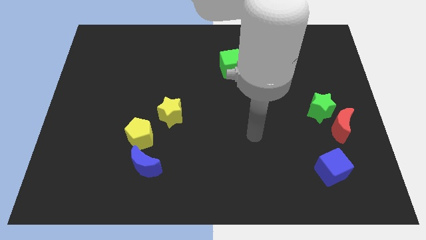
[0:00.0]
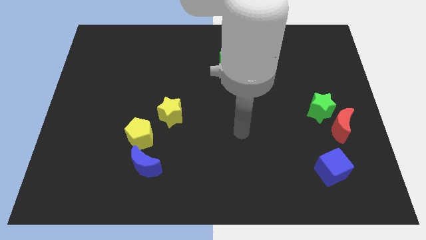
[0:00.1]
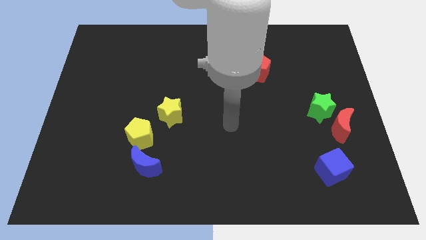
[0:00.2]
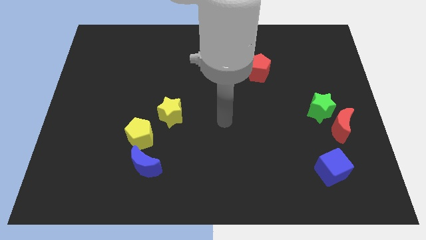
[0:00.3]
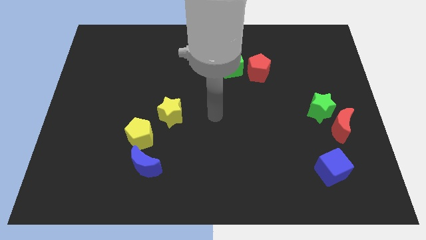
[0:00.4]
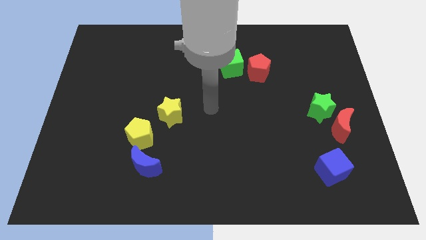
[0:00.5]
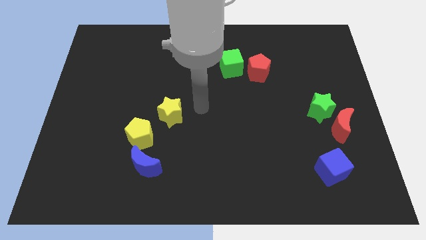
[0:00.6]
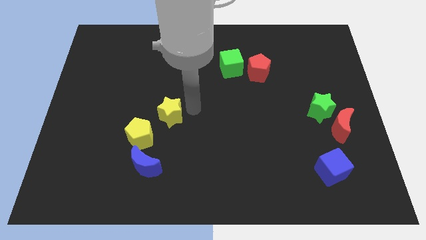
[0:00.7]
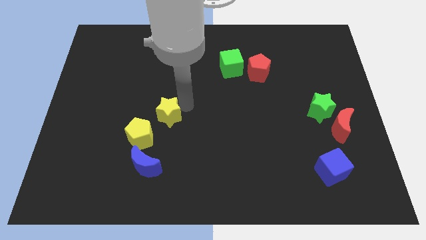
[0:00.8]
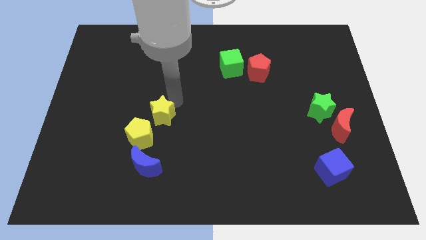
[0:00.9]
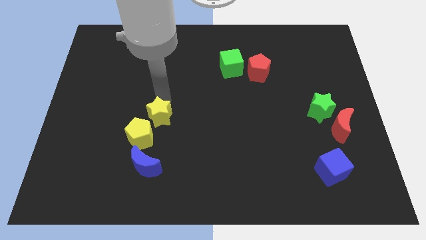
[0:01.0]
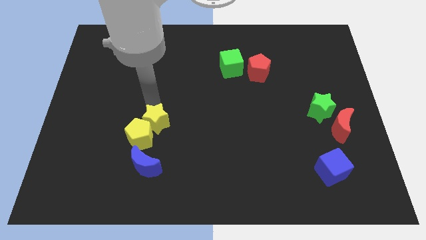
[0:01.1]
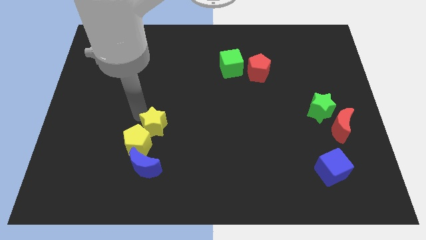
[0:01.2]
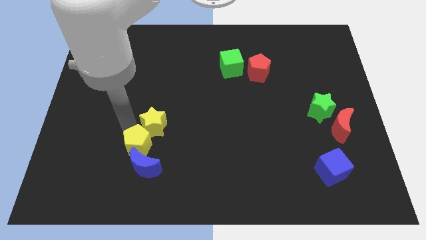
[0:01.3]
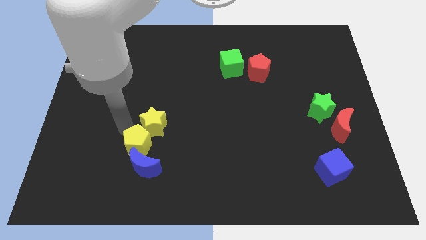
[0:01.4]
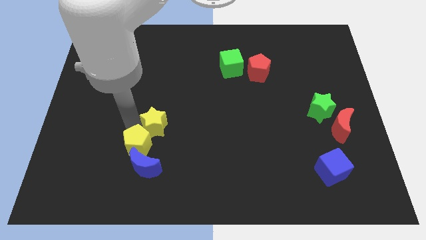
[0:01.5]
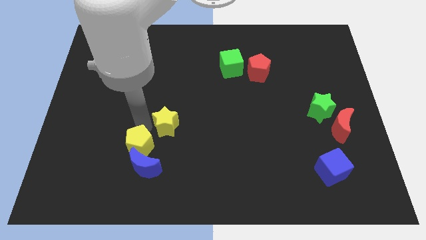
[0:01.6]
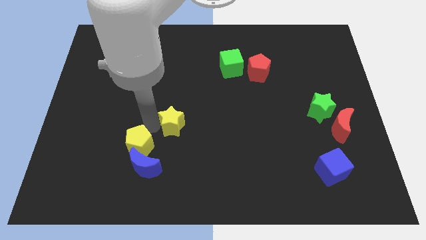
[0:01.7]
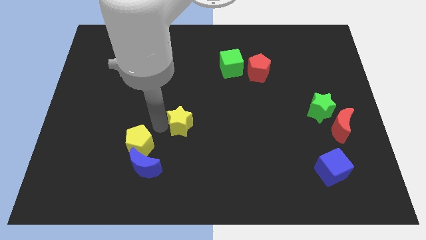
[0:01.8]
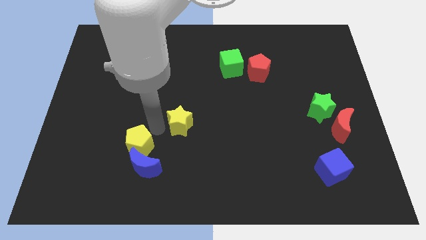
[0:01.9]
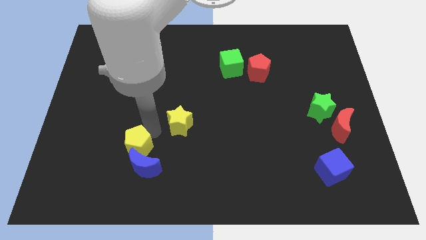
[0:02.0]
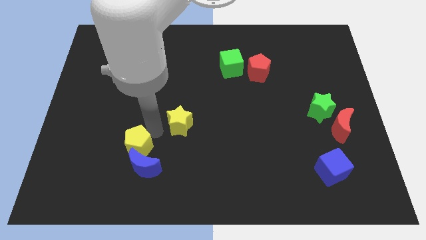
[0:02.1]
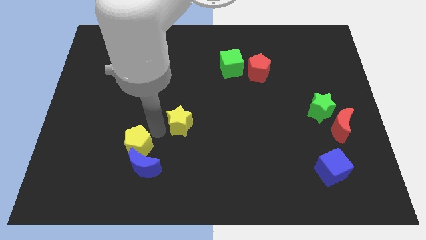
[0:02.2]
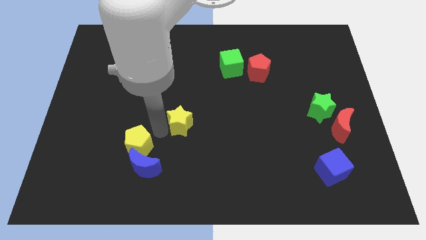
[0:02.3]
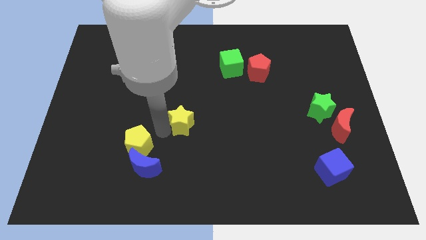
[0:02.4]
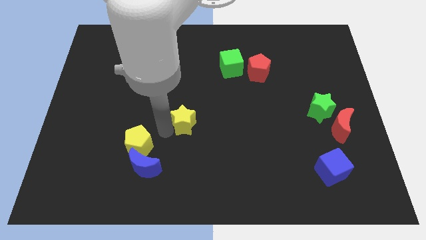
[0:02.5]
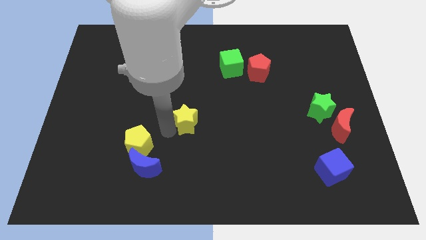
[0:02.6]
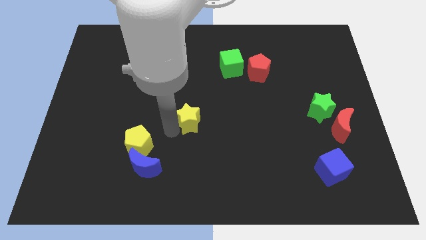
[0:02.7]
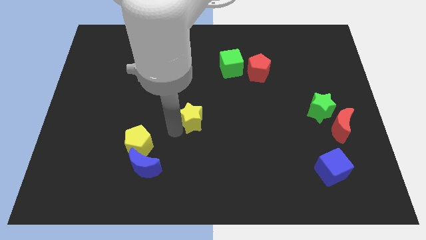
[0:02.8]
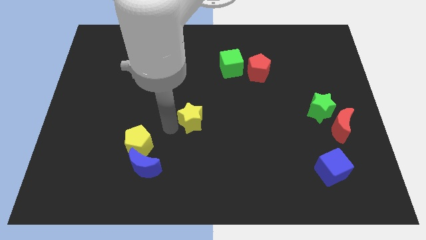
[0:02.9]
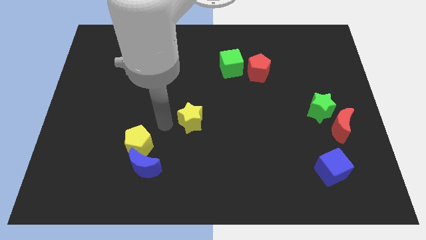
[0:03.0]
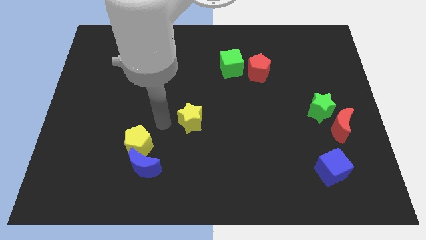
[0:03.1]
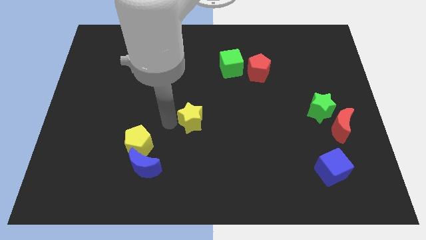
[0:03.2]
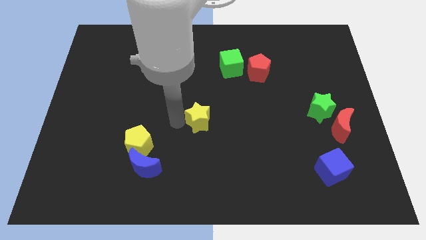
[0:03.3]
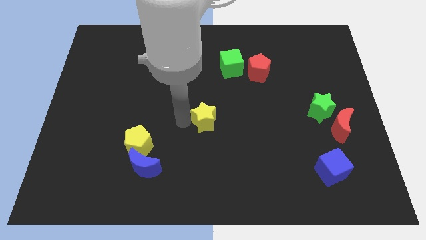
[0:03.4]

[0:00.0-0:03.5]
move the yellow star to the right a little bit

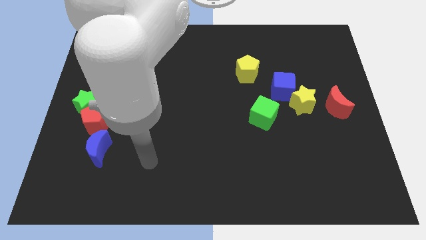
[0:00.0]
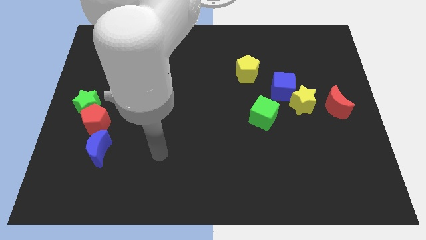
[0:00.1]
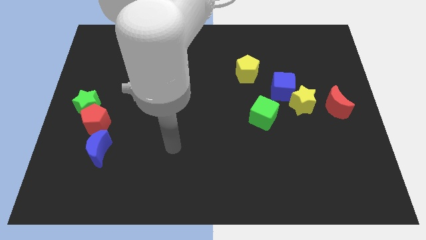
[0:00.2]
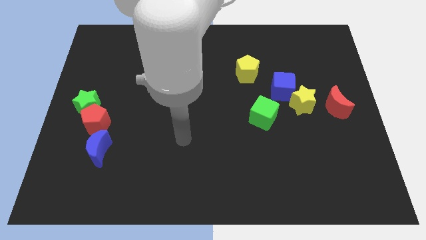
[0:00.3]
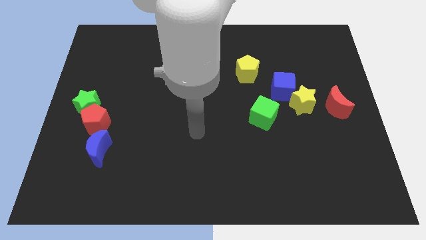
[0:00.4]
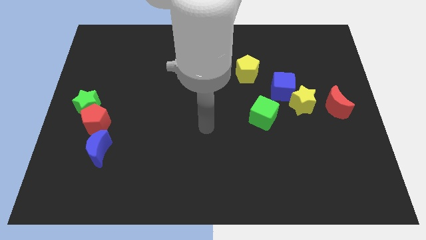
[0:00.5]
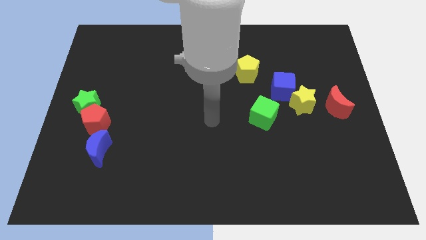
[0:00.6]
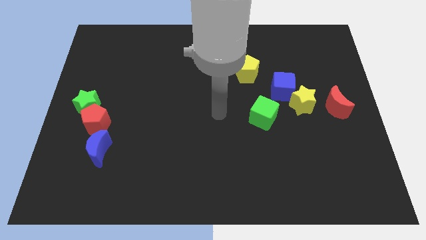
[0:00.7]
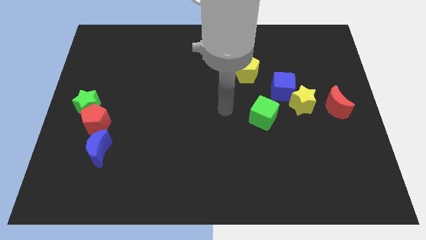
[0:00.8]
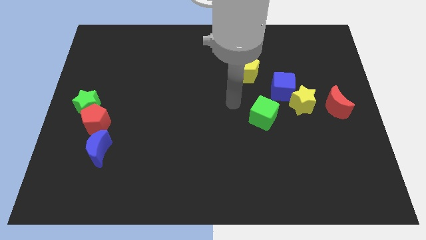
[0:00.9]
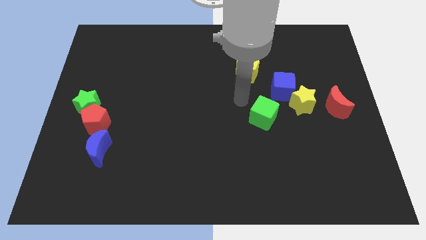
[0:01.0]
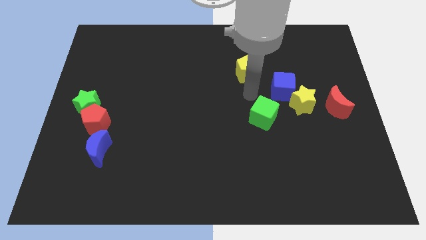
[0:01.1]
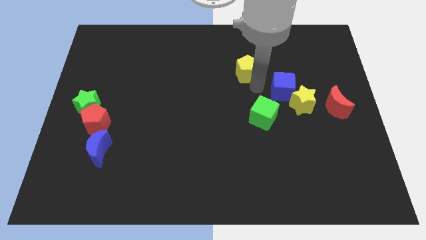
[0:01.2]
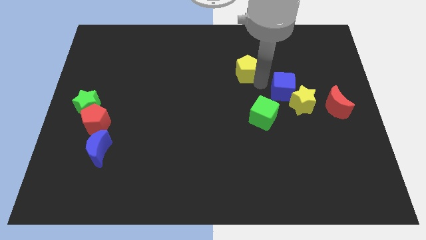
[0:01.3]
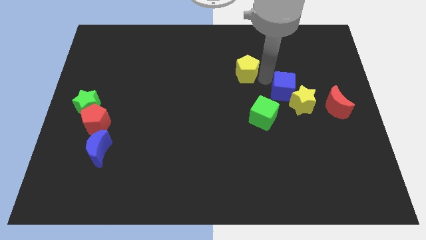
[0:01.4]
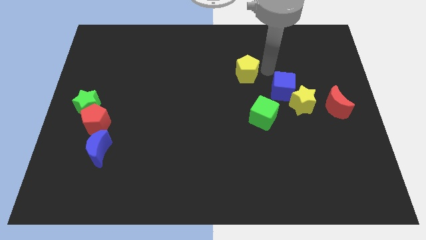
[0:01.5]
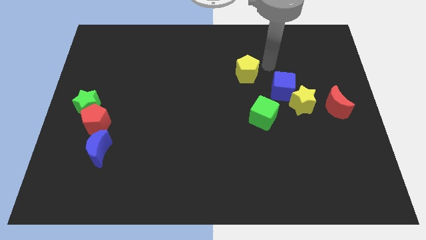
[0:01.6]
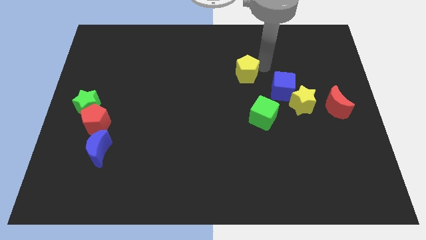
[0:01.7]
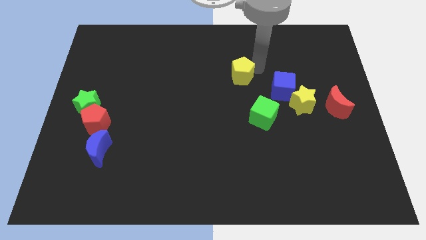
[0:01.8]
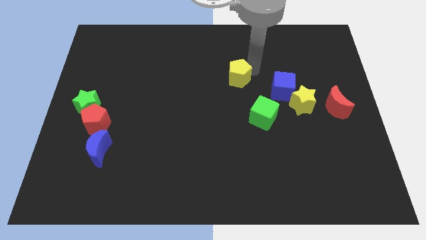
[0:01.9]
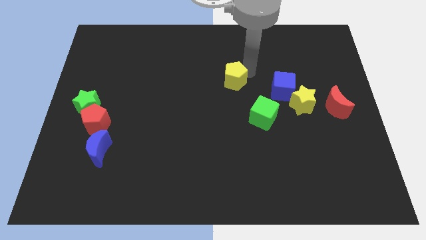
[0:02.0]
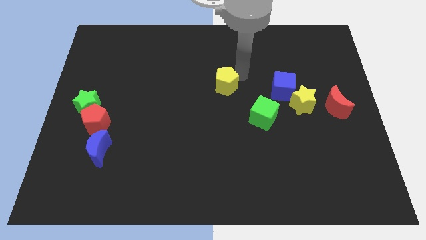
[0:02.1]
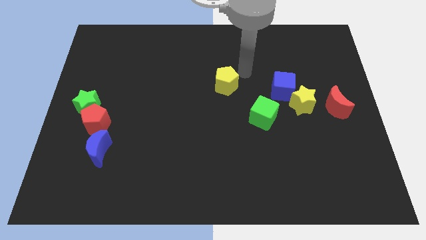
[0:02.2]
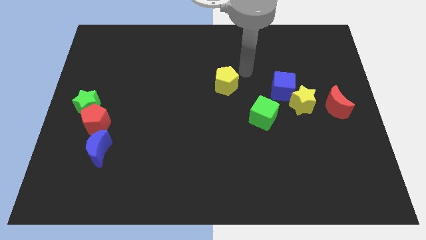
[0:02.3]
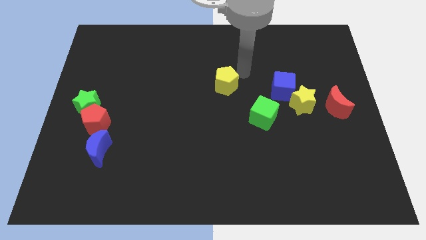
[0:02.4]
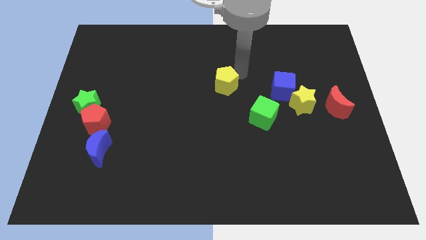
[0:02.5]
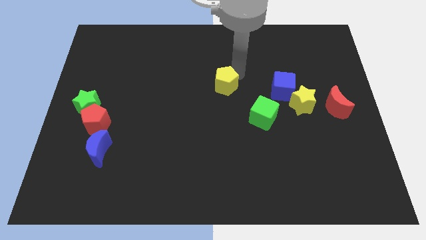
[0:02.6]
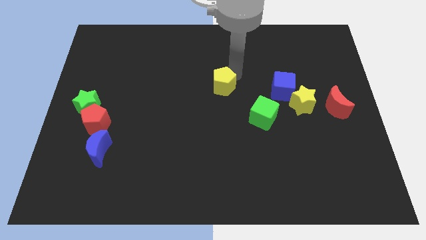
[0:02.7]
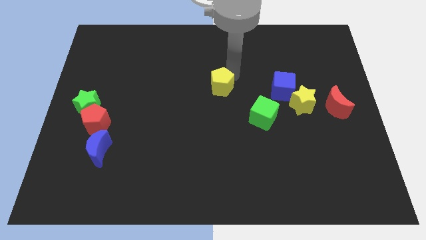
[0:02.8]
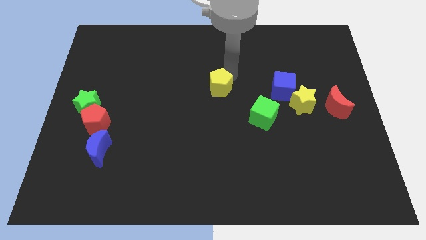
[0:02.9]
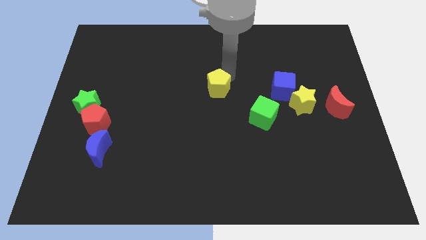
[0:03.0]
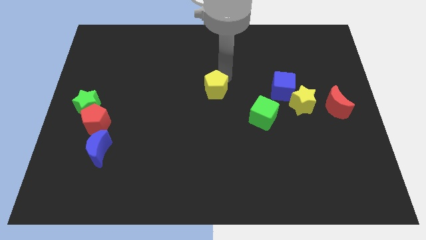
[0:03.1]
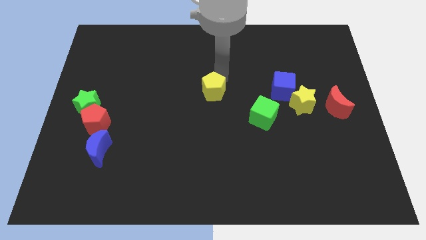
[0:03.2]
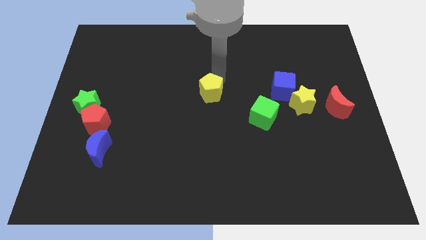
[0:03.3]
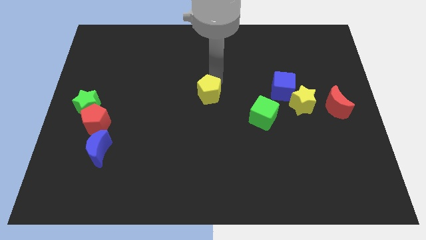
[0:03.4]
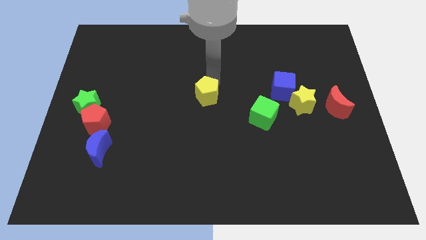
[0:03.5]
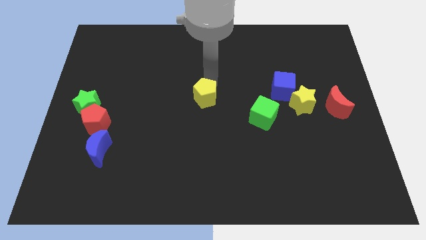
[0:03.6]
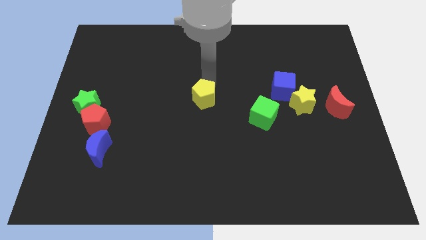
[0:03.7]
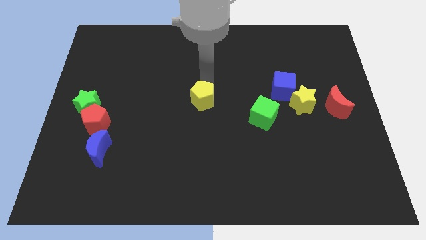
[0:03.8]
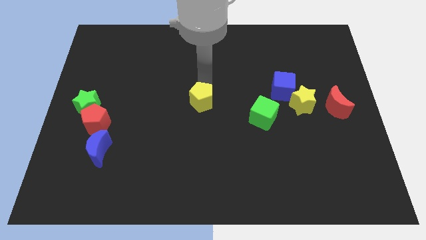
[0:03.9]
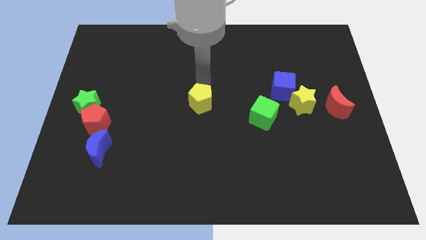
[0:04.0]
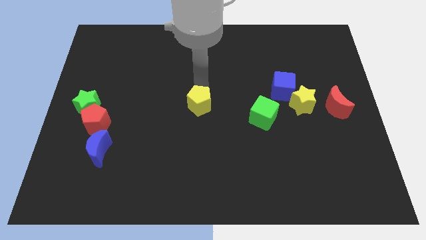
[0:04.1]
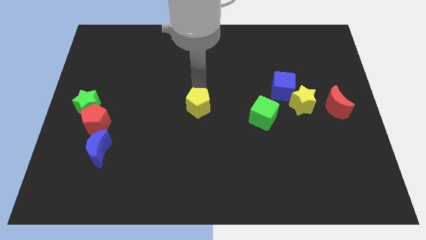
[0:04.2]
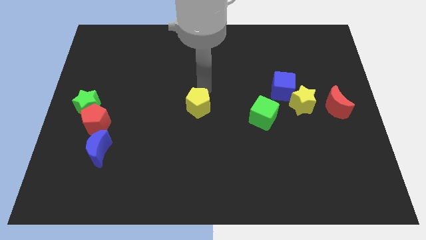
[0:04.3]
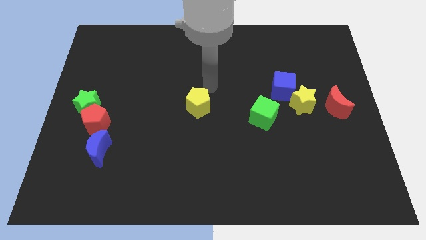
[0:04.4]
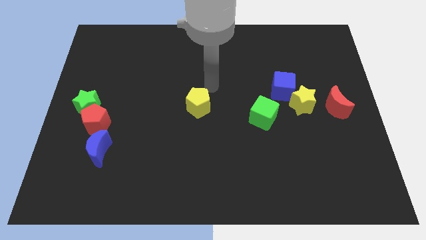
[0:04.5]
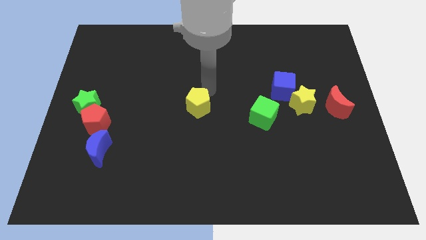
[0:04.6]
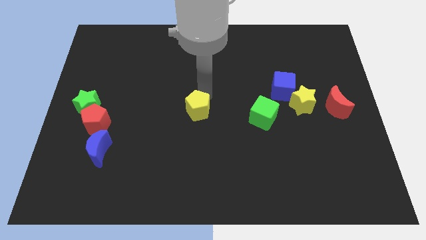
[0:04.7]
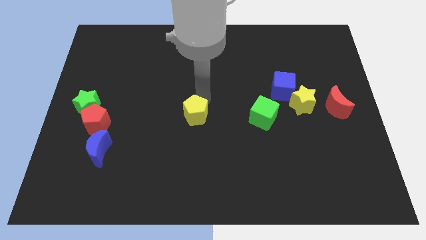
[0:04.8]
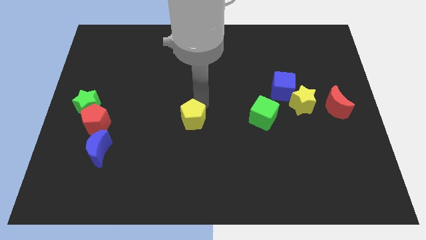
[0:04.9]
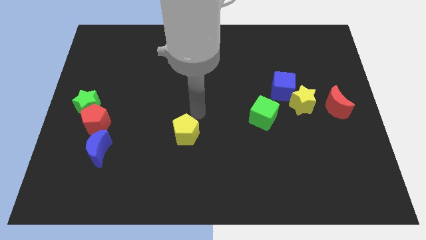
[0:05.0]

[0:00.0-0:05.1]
slide the yellow pentagon diagonally down and to the left
